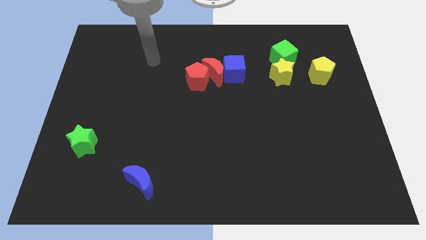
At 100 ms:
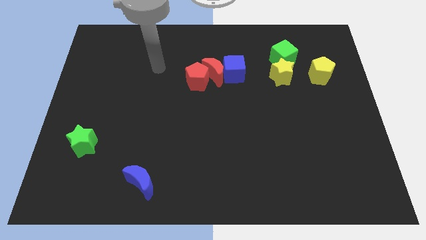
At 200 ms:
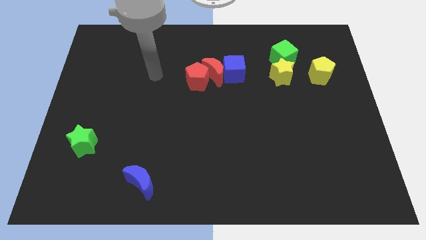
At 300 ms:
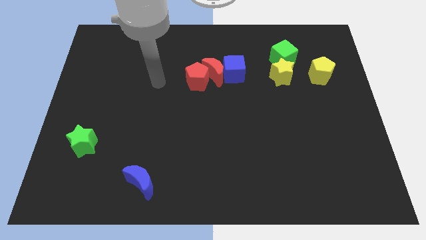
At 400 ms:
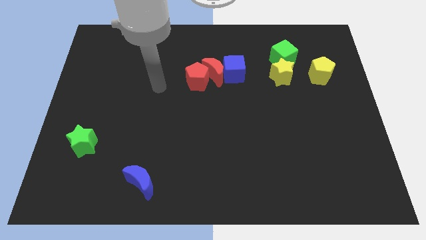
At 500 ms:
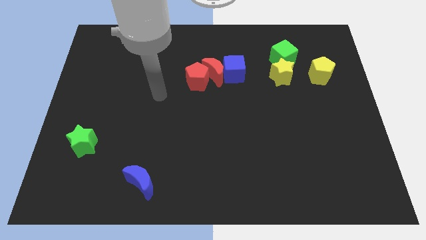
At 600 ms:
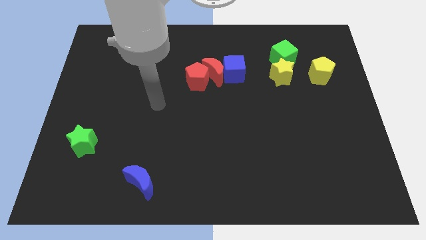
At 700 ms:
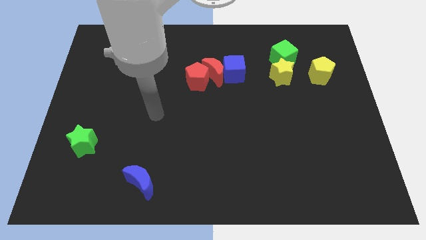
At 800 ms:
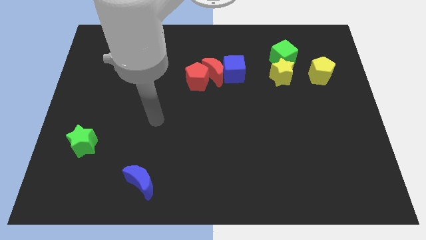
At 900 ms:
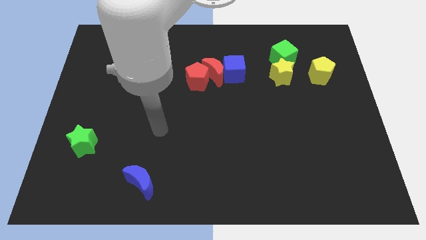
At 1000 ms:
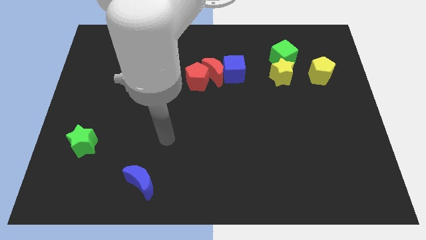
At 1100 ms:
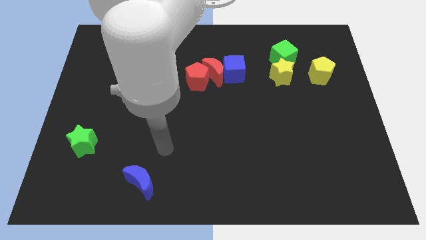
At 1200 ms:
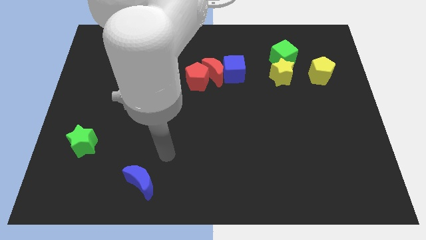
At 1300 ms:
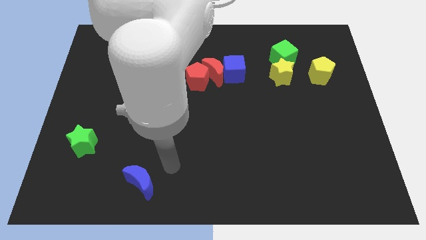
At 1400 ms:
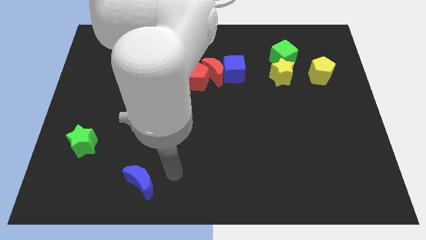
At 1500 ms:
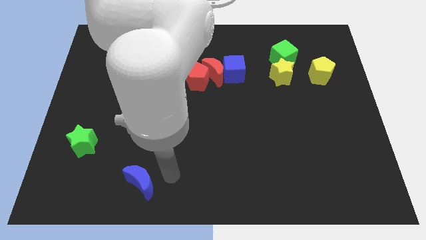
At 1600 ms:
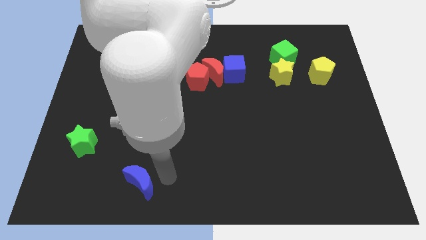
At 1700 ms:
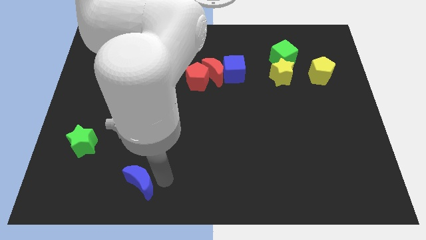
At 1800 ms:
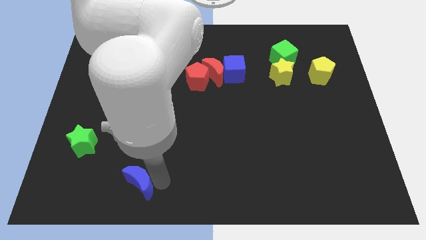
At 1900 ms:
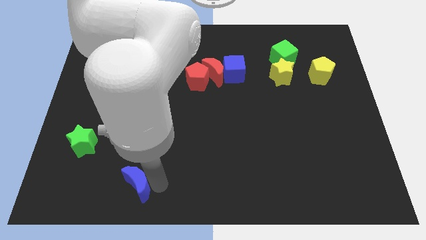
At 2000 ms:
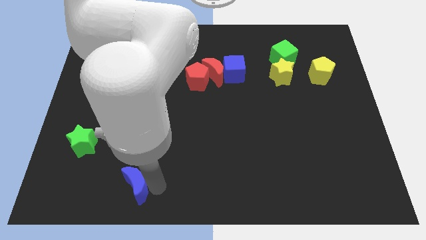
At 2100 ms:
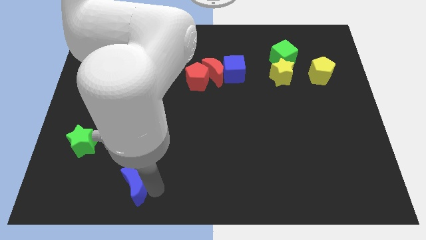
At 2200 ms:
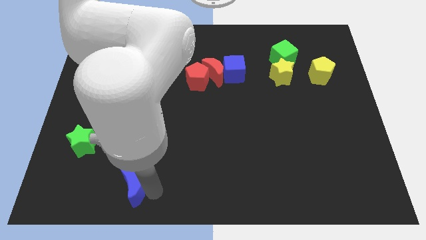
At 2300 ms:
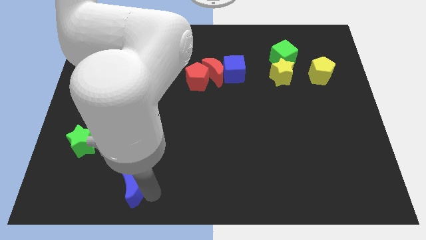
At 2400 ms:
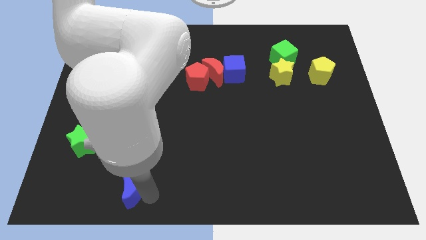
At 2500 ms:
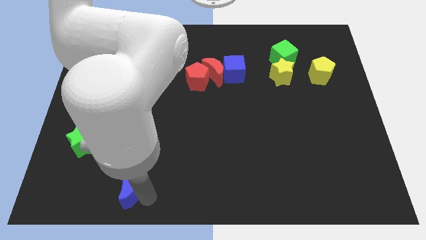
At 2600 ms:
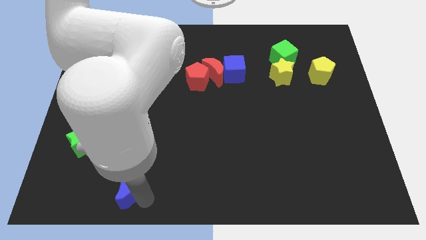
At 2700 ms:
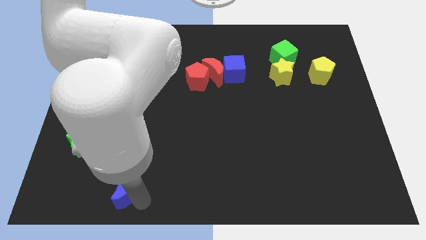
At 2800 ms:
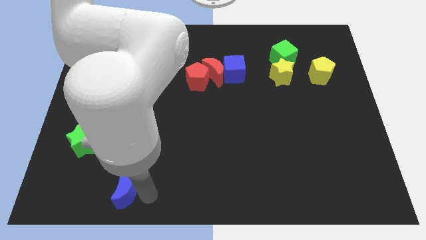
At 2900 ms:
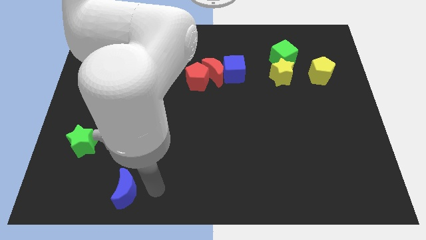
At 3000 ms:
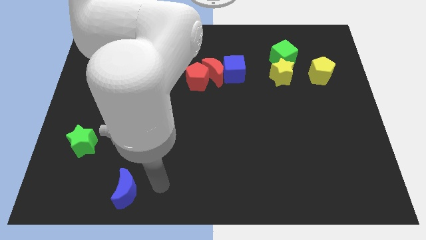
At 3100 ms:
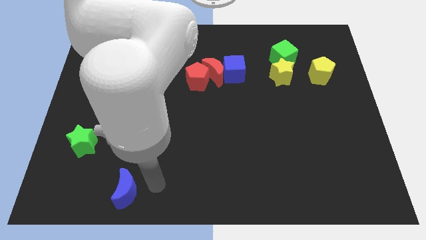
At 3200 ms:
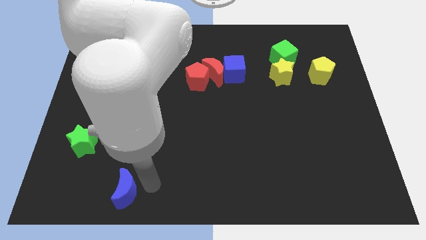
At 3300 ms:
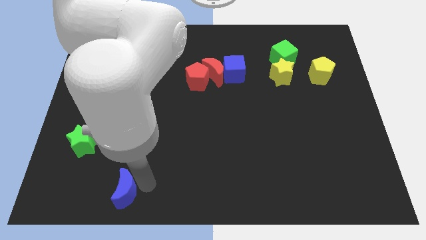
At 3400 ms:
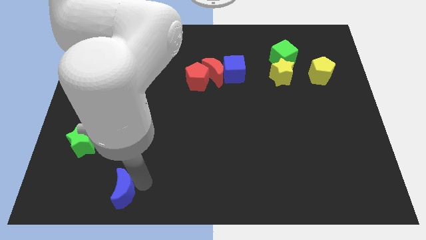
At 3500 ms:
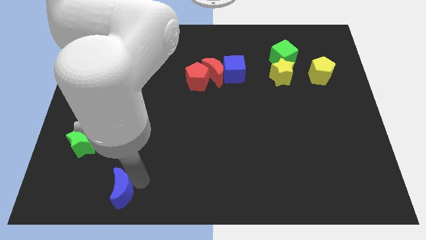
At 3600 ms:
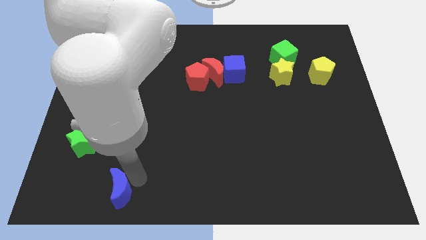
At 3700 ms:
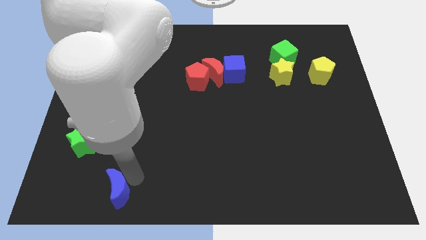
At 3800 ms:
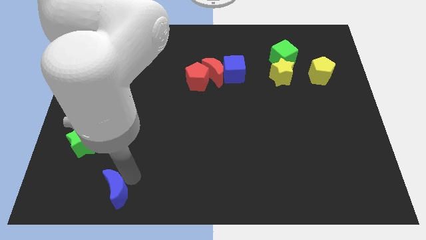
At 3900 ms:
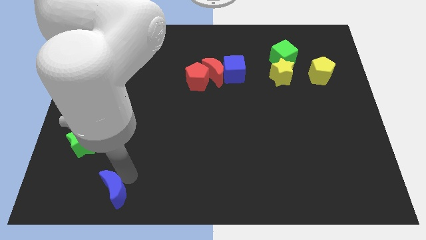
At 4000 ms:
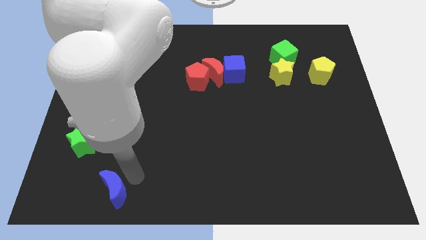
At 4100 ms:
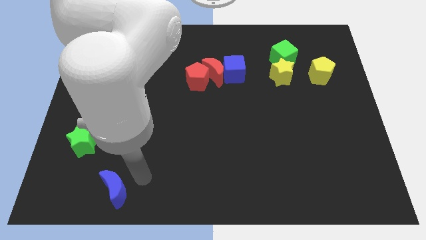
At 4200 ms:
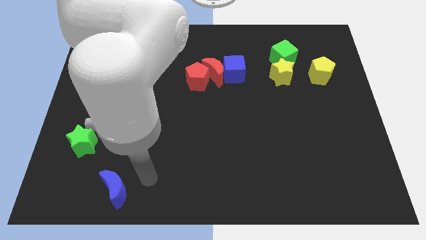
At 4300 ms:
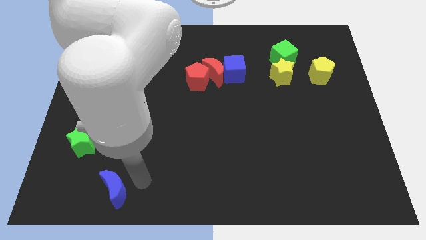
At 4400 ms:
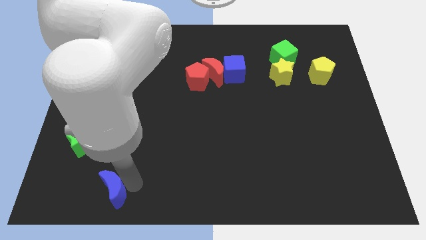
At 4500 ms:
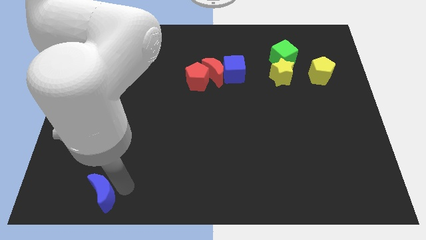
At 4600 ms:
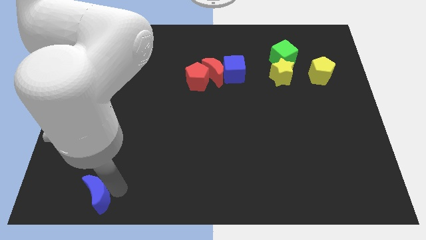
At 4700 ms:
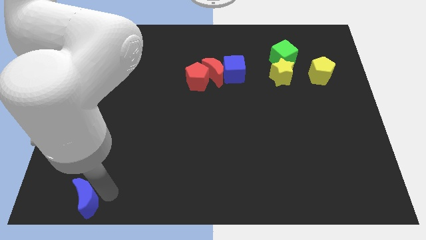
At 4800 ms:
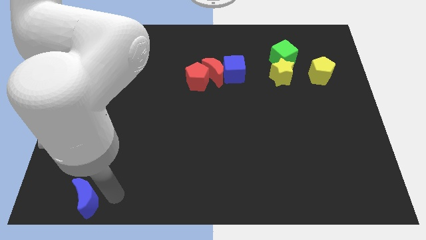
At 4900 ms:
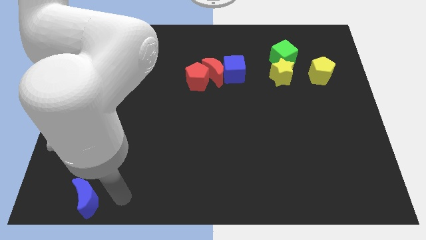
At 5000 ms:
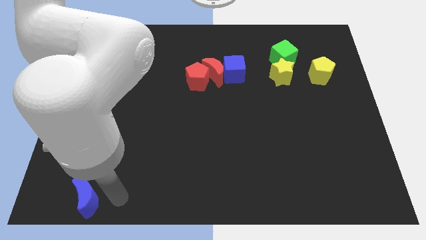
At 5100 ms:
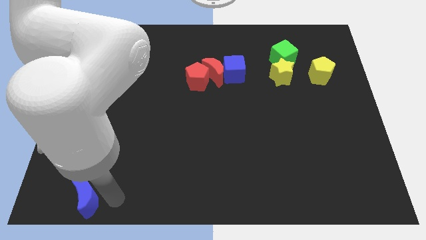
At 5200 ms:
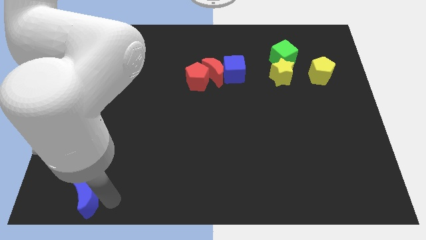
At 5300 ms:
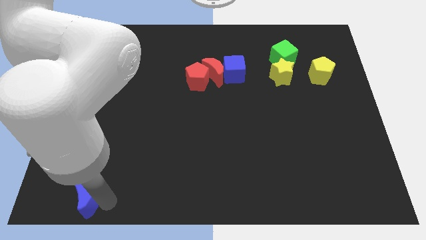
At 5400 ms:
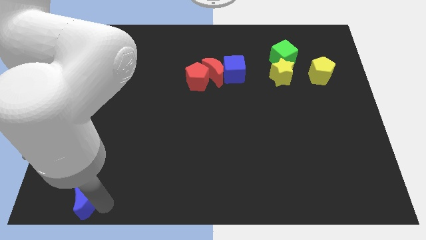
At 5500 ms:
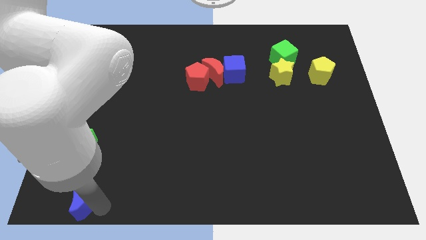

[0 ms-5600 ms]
move the blue moon to the lower left corner

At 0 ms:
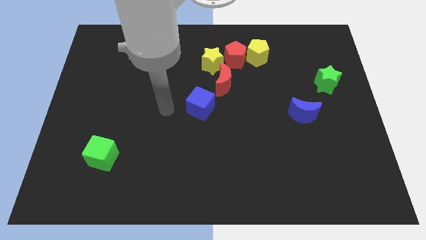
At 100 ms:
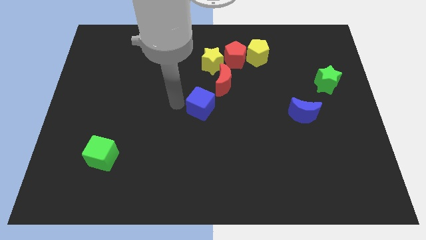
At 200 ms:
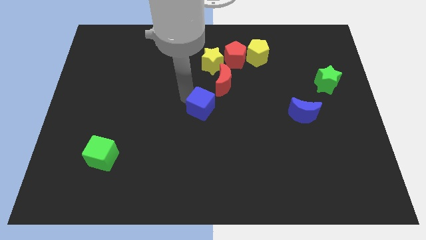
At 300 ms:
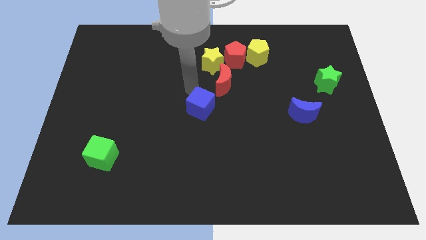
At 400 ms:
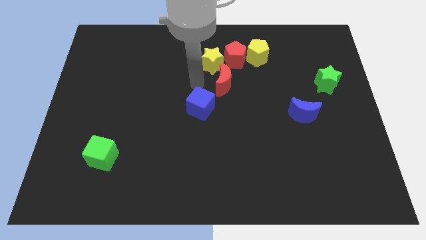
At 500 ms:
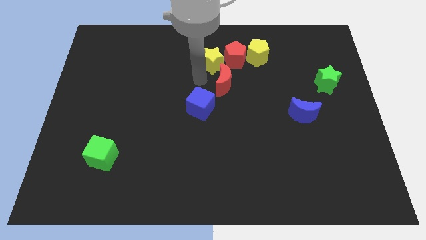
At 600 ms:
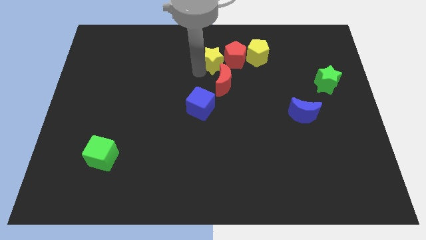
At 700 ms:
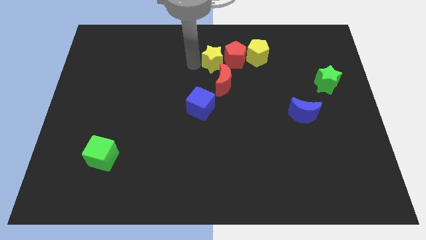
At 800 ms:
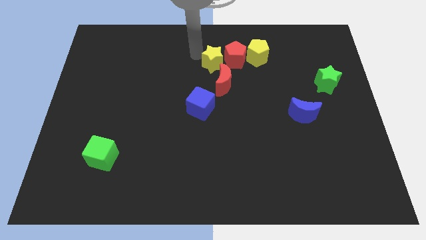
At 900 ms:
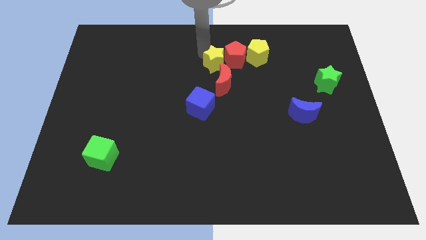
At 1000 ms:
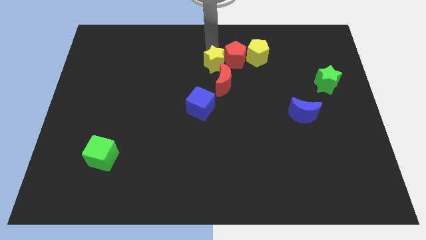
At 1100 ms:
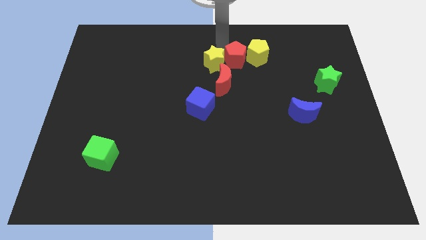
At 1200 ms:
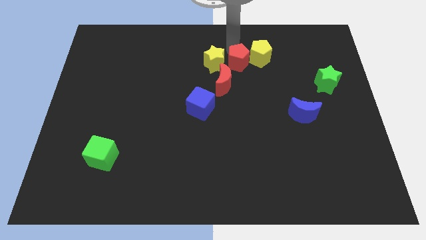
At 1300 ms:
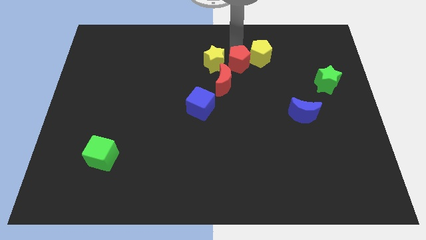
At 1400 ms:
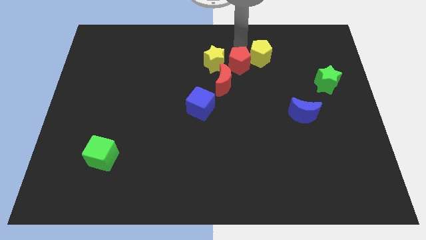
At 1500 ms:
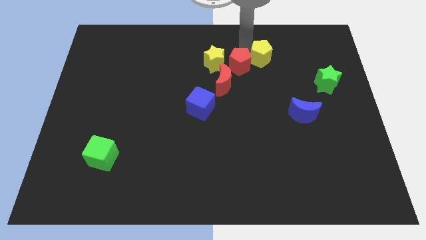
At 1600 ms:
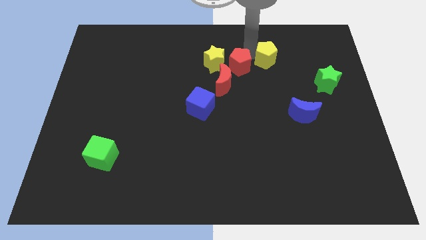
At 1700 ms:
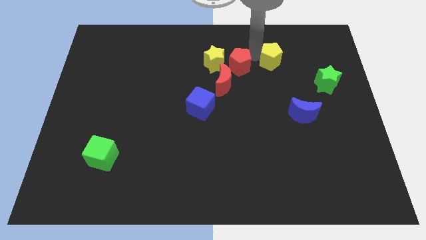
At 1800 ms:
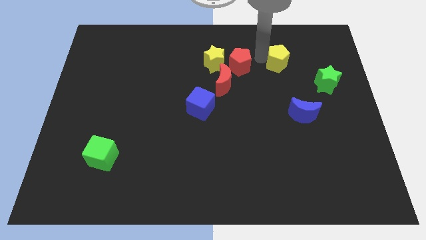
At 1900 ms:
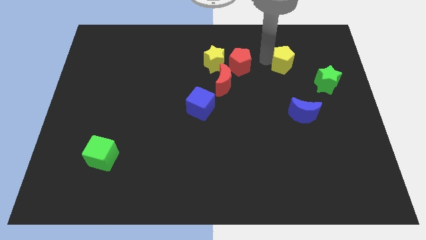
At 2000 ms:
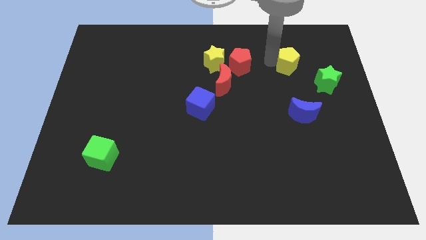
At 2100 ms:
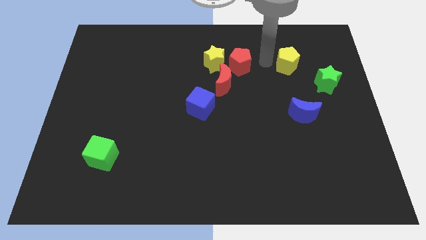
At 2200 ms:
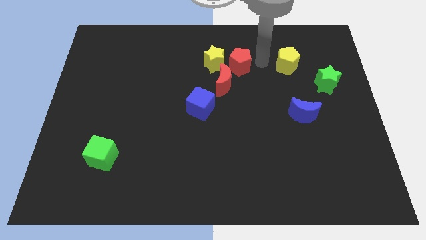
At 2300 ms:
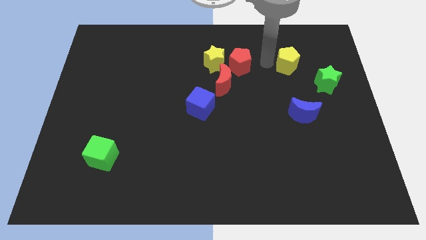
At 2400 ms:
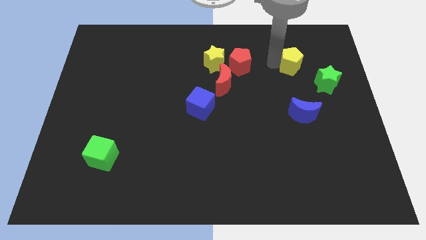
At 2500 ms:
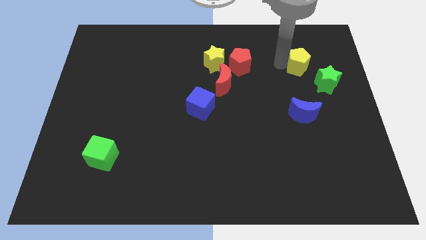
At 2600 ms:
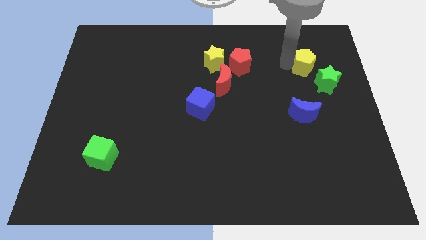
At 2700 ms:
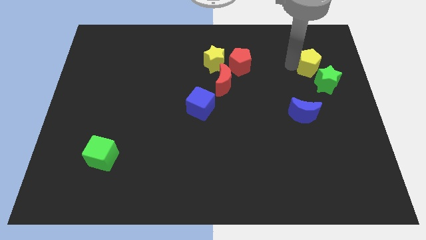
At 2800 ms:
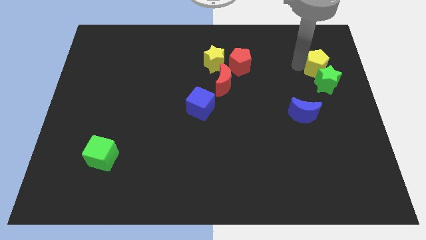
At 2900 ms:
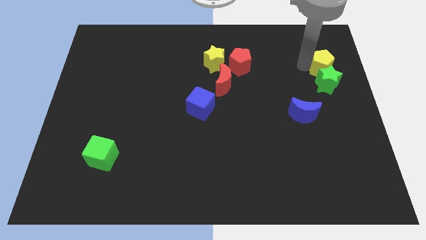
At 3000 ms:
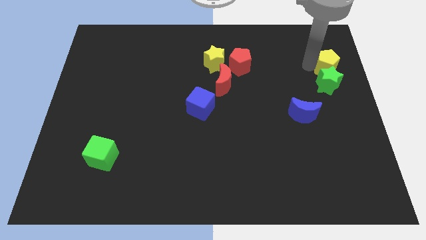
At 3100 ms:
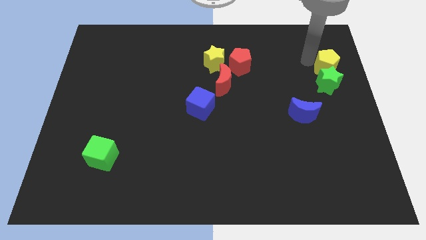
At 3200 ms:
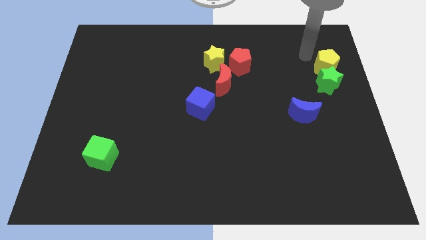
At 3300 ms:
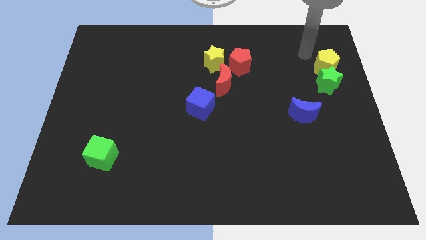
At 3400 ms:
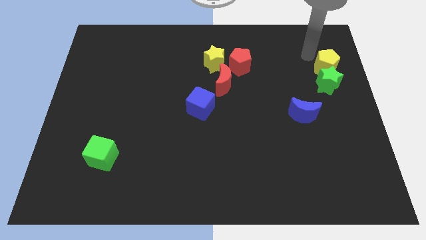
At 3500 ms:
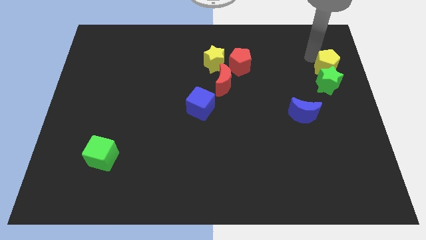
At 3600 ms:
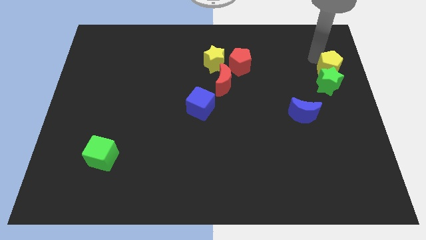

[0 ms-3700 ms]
put the yellow pentagon to the right side
